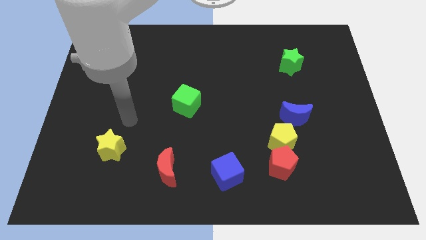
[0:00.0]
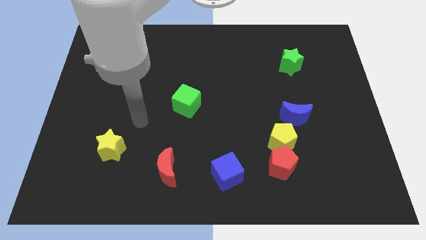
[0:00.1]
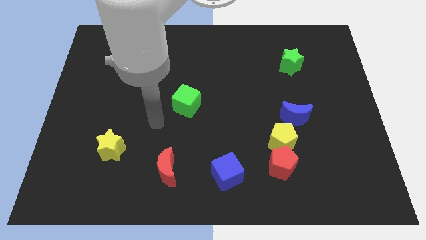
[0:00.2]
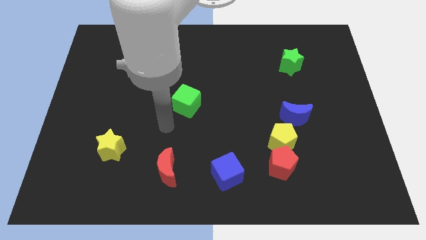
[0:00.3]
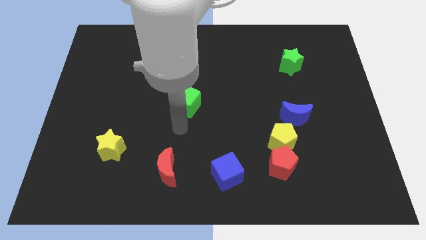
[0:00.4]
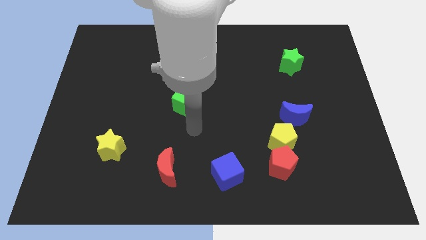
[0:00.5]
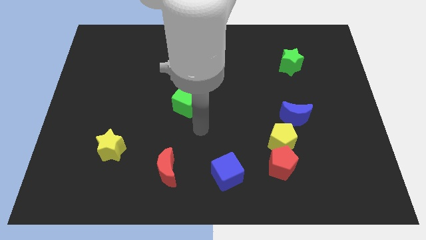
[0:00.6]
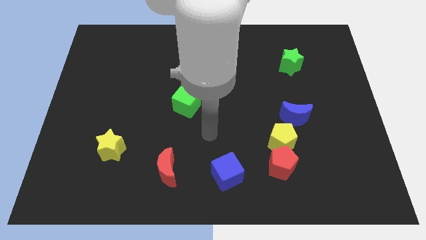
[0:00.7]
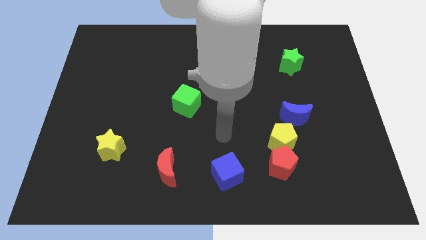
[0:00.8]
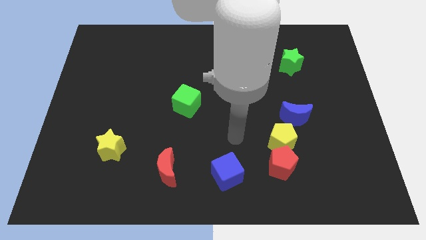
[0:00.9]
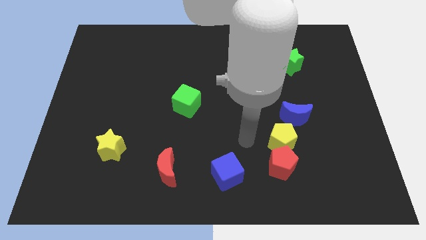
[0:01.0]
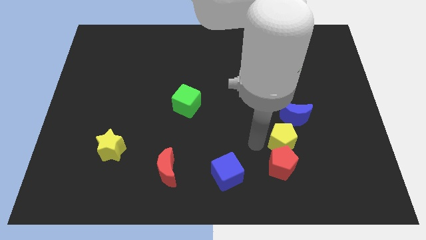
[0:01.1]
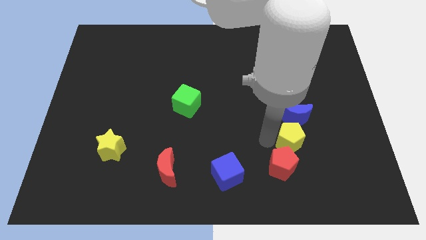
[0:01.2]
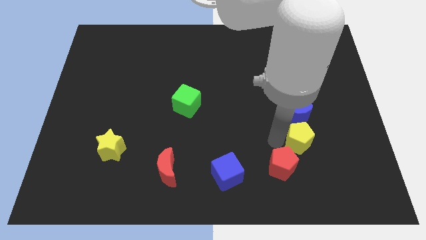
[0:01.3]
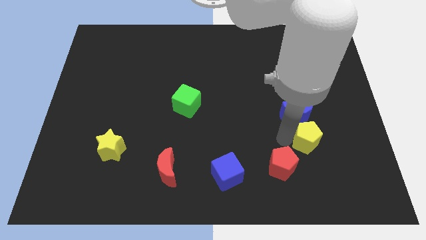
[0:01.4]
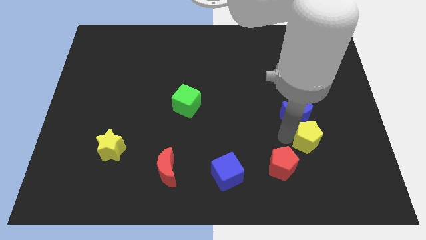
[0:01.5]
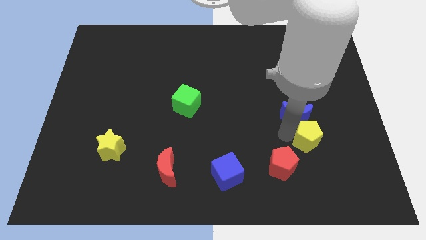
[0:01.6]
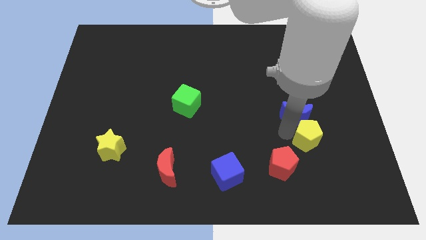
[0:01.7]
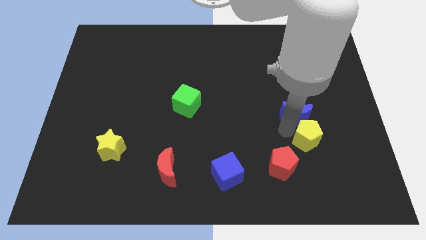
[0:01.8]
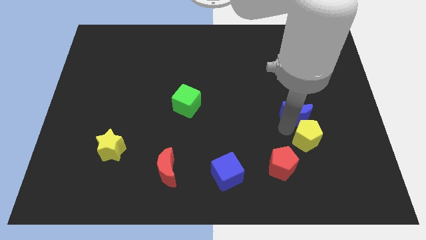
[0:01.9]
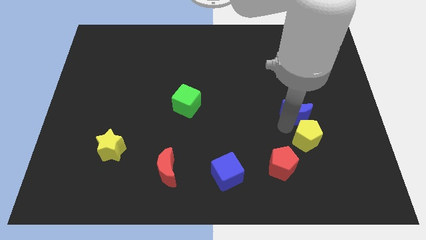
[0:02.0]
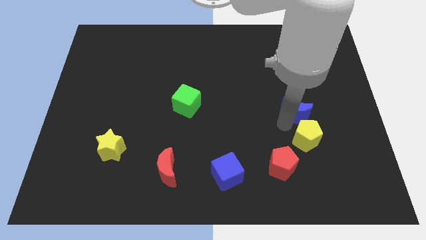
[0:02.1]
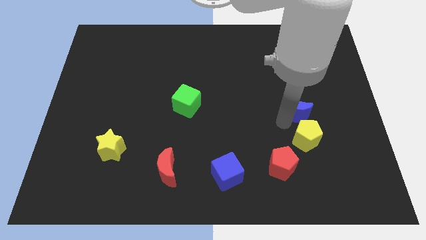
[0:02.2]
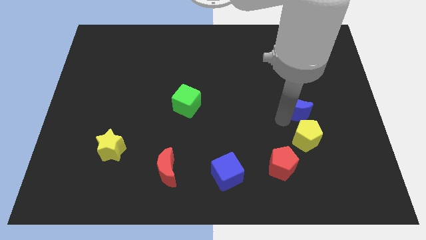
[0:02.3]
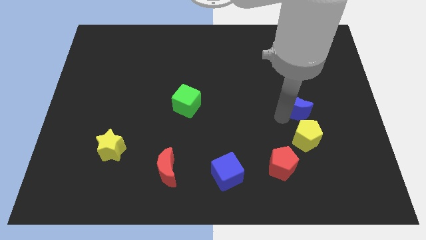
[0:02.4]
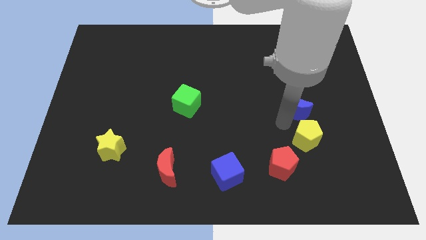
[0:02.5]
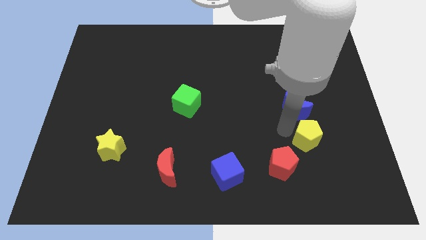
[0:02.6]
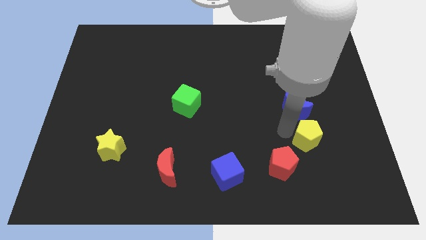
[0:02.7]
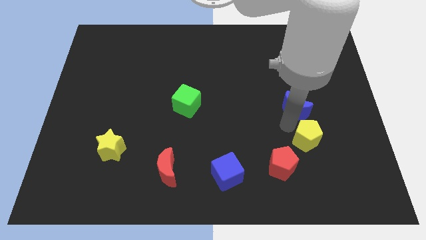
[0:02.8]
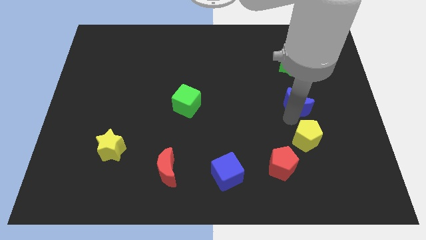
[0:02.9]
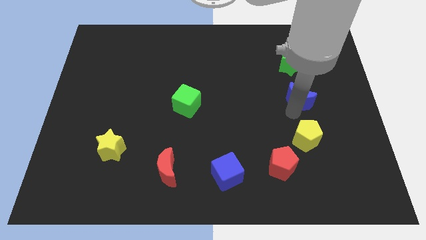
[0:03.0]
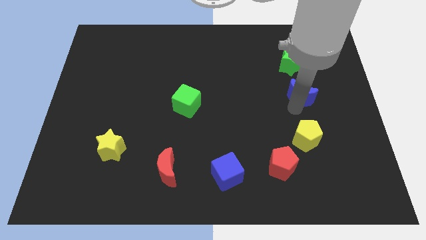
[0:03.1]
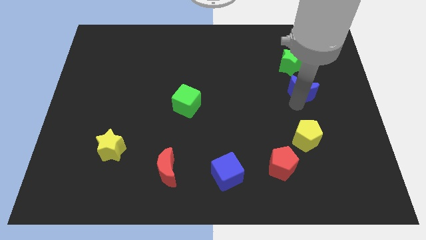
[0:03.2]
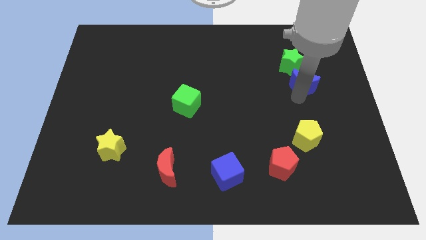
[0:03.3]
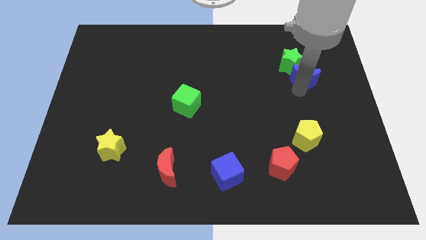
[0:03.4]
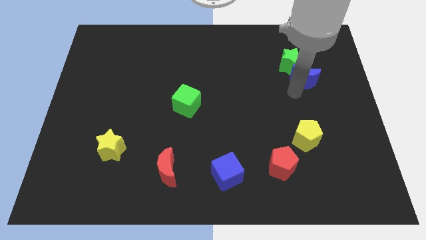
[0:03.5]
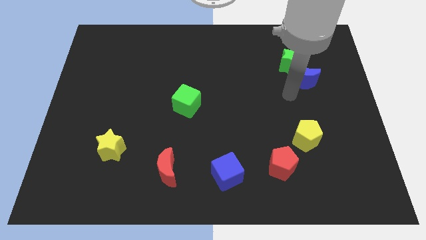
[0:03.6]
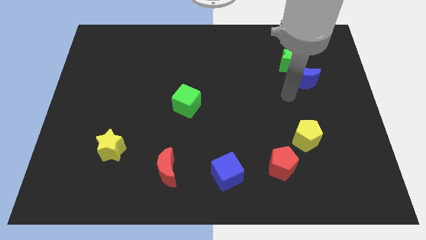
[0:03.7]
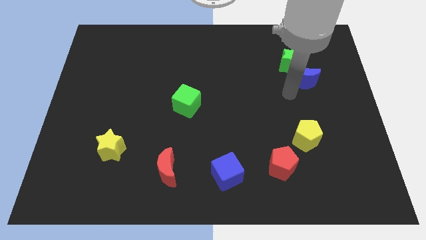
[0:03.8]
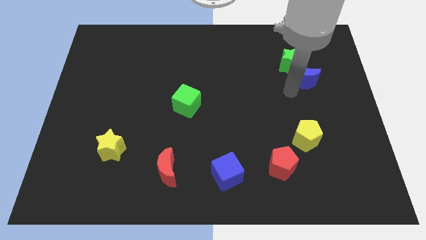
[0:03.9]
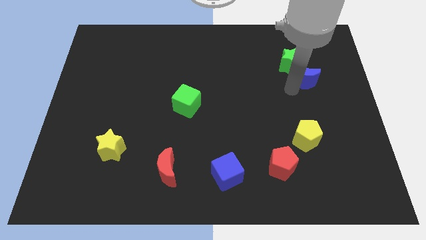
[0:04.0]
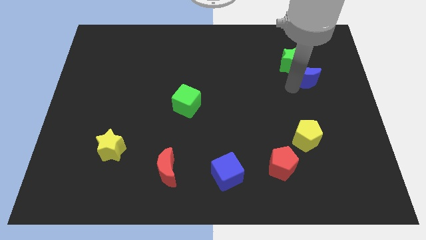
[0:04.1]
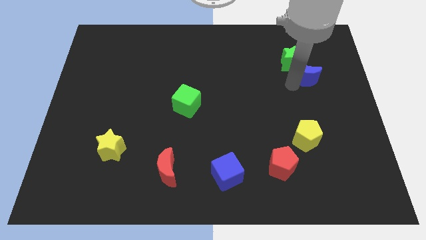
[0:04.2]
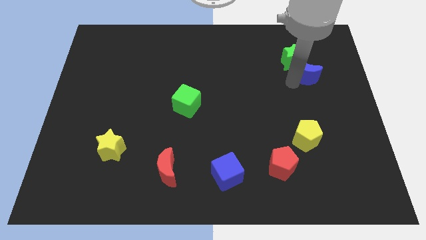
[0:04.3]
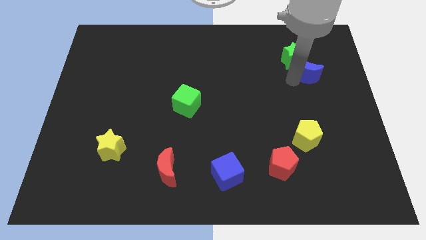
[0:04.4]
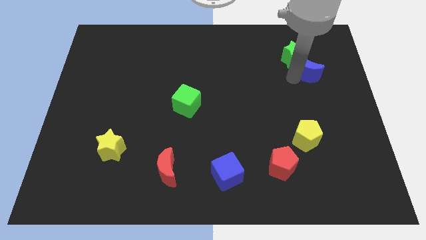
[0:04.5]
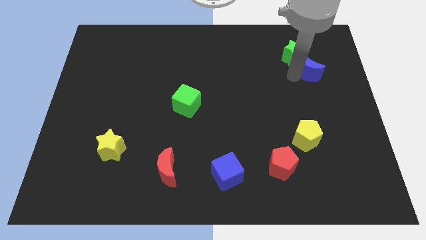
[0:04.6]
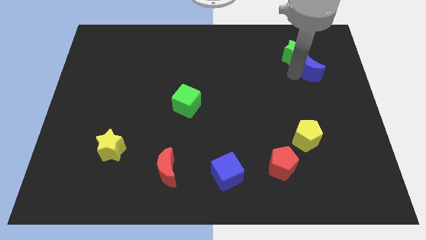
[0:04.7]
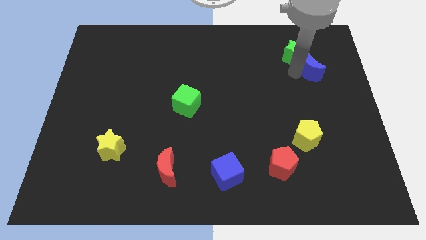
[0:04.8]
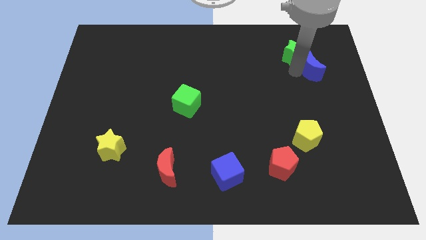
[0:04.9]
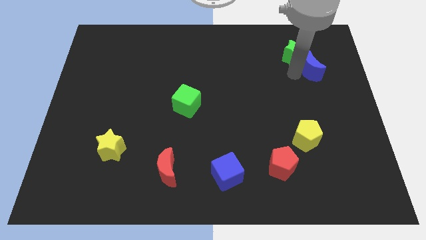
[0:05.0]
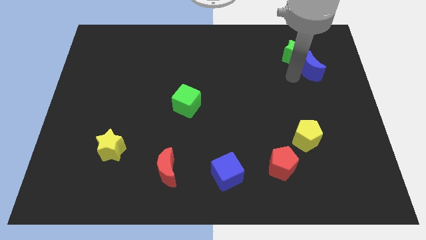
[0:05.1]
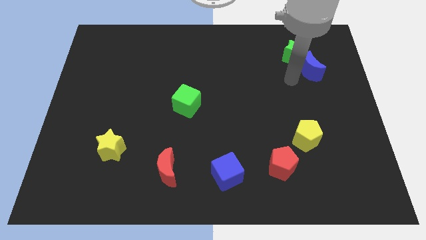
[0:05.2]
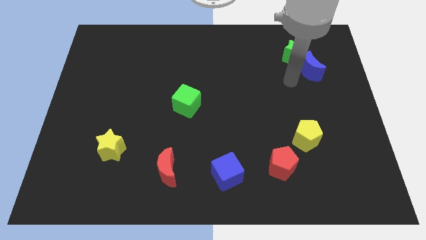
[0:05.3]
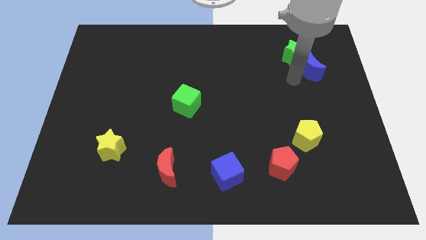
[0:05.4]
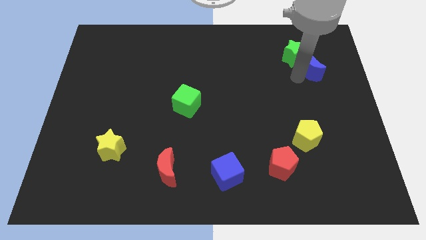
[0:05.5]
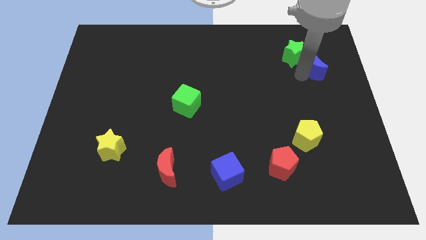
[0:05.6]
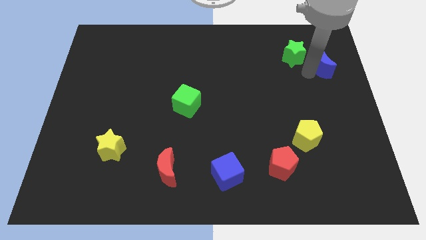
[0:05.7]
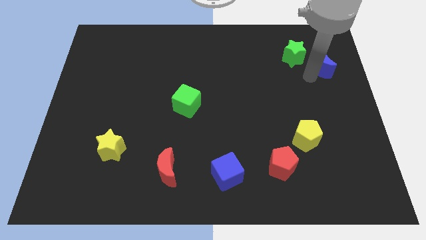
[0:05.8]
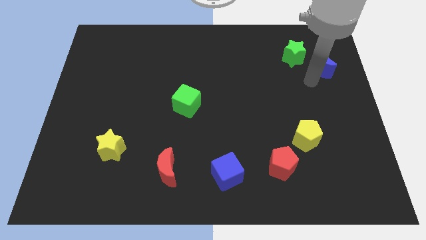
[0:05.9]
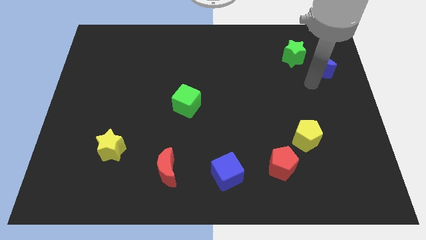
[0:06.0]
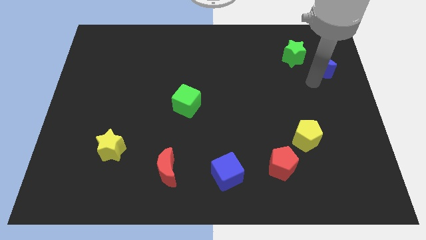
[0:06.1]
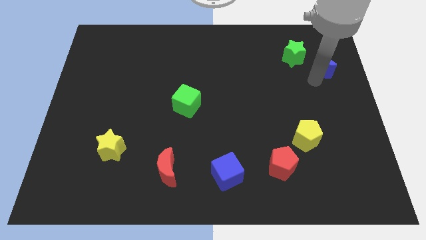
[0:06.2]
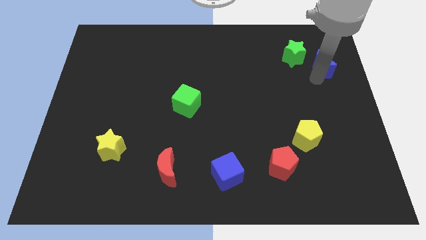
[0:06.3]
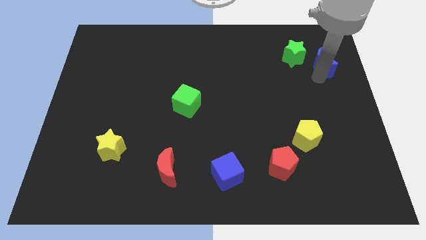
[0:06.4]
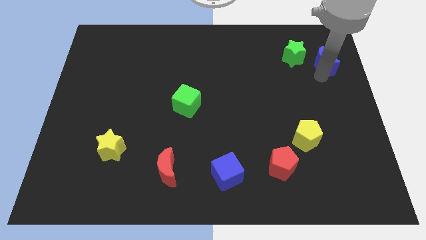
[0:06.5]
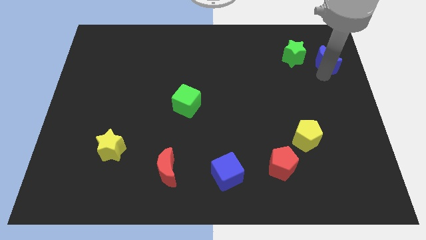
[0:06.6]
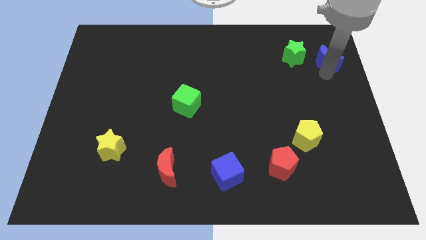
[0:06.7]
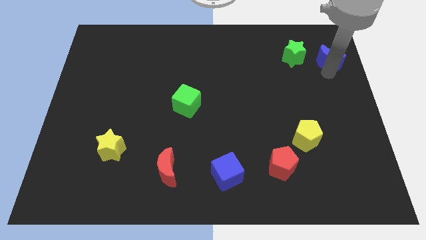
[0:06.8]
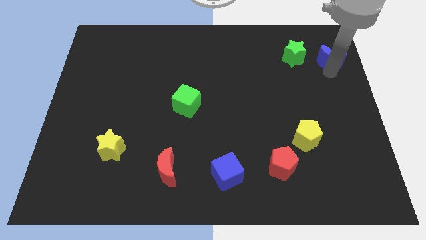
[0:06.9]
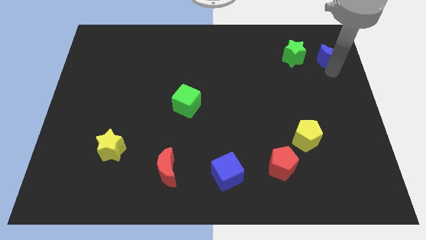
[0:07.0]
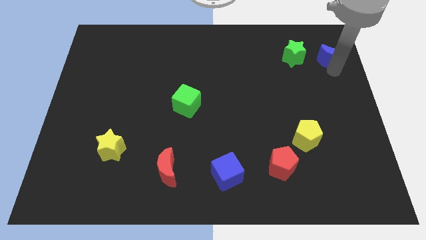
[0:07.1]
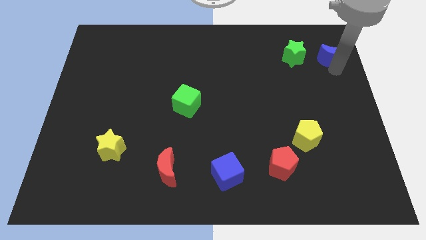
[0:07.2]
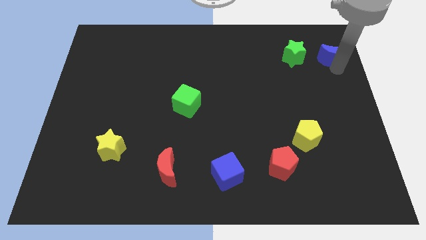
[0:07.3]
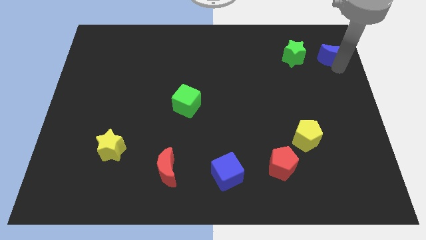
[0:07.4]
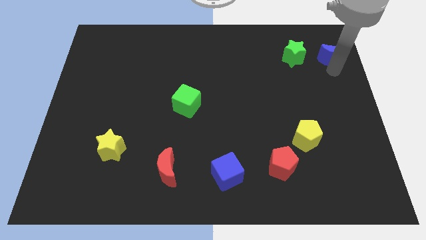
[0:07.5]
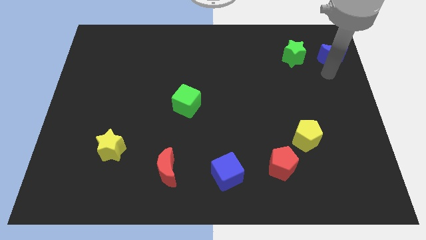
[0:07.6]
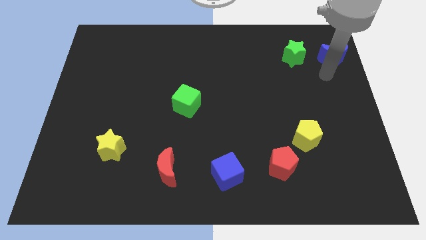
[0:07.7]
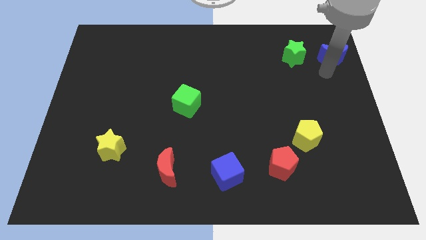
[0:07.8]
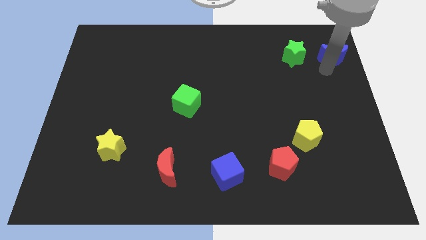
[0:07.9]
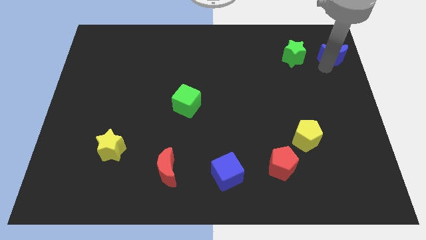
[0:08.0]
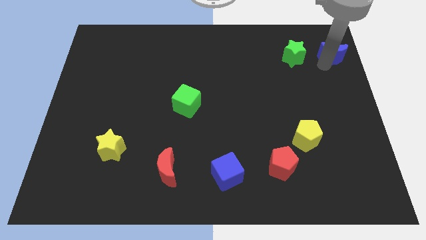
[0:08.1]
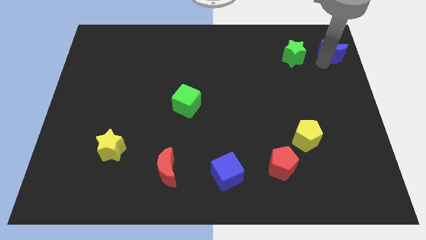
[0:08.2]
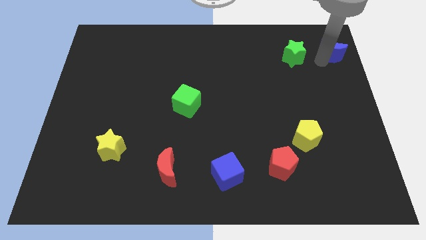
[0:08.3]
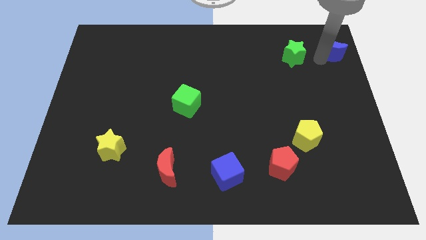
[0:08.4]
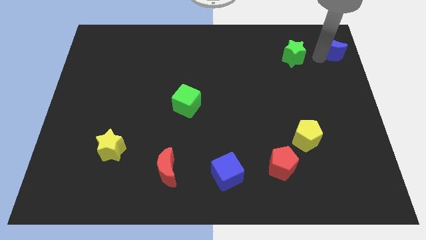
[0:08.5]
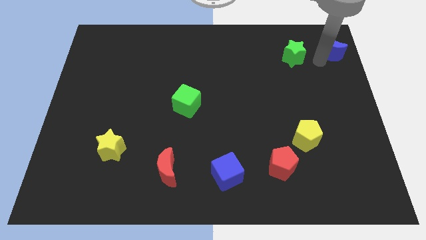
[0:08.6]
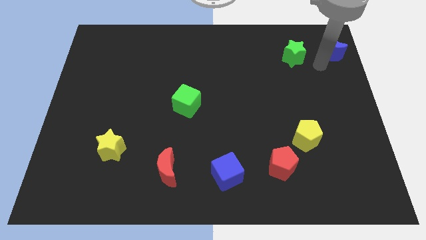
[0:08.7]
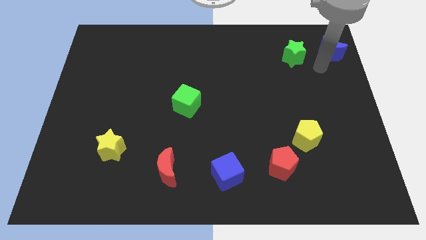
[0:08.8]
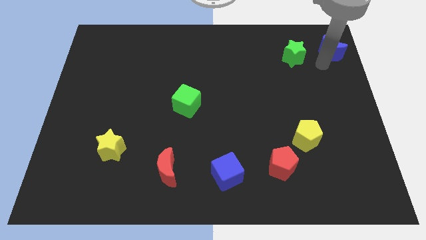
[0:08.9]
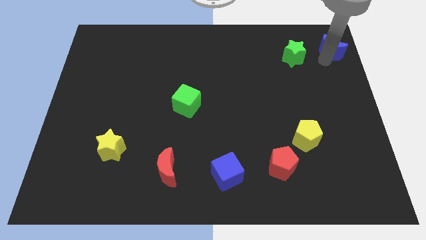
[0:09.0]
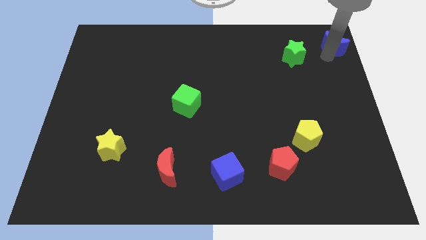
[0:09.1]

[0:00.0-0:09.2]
move the blue moon to the top right
